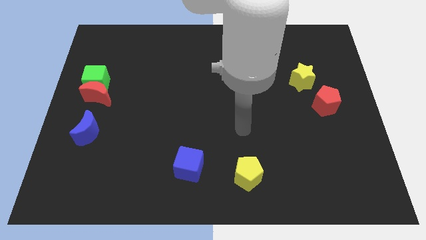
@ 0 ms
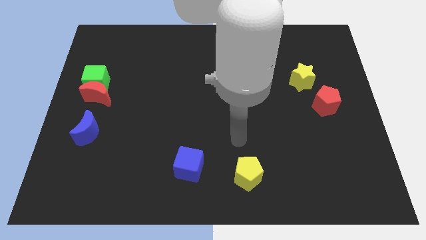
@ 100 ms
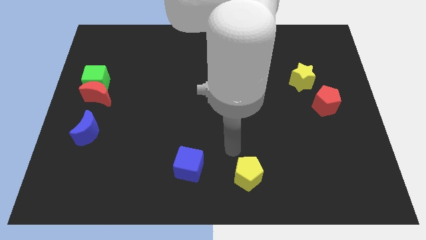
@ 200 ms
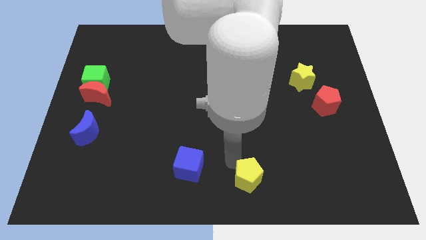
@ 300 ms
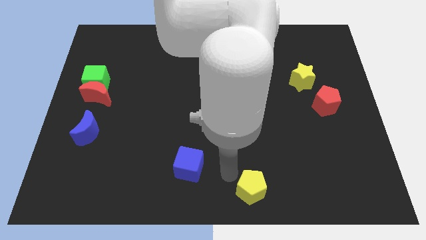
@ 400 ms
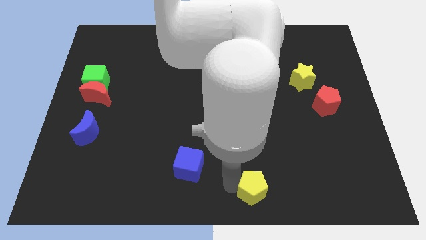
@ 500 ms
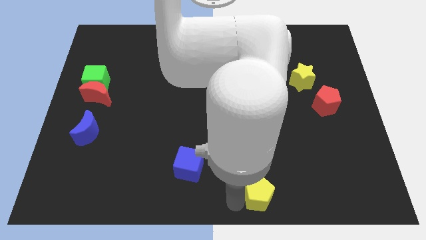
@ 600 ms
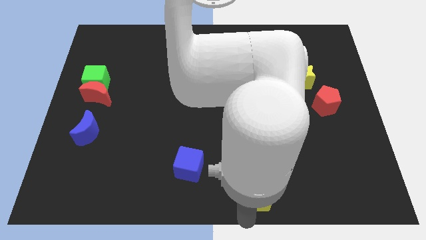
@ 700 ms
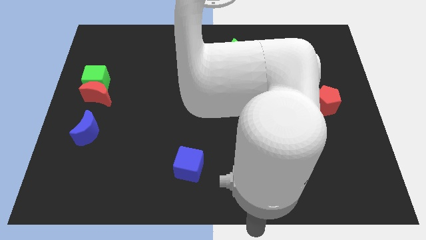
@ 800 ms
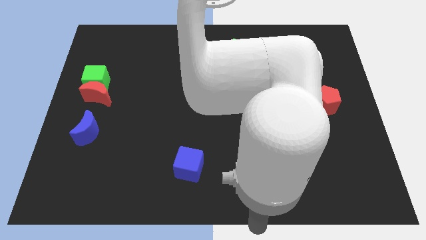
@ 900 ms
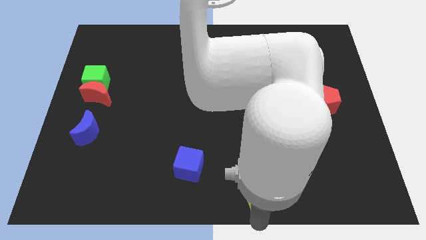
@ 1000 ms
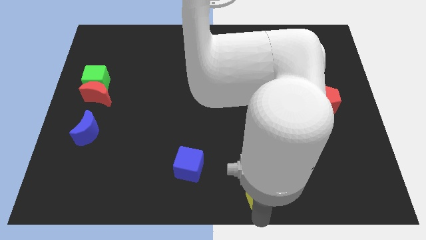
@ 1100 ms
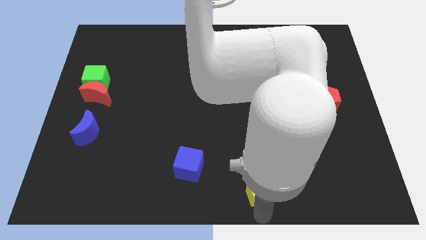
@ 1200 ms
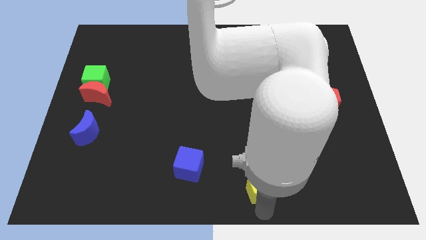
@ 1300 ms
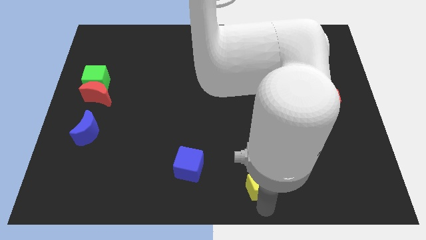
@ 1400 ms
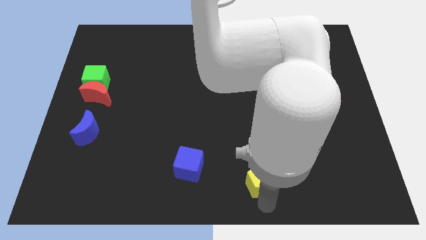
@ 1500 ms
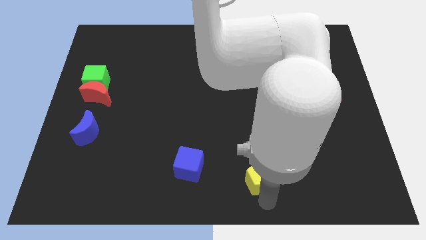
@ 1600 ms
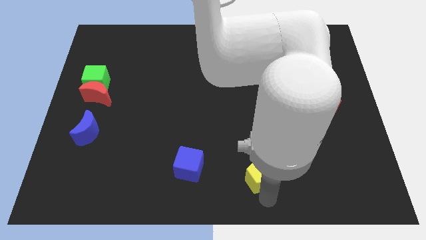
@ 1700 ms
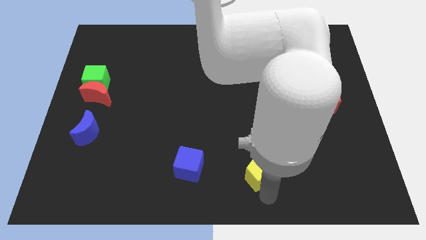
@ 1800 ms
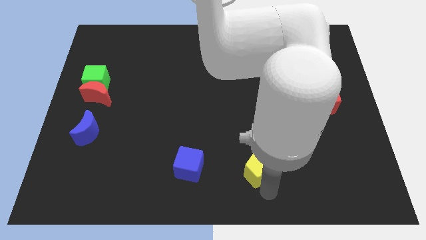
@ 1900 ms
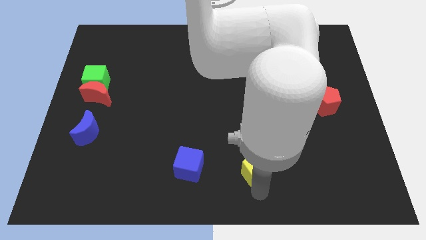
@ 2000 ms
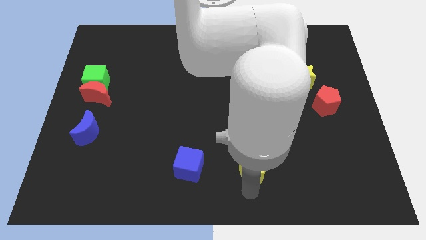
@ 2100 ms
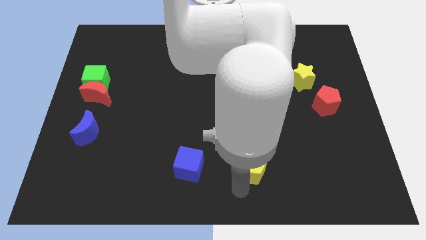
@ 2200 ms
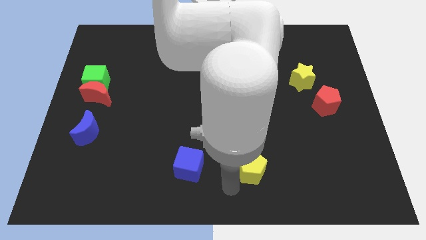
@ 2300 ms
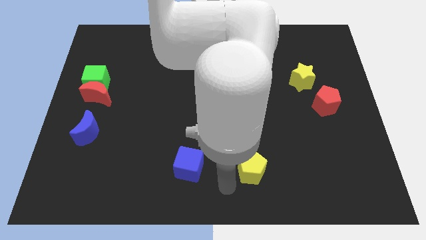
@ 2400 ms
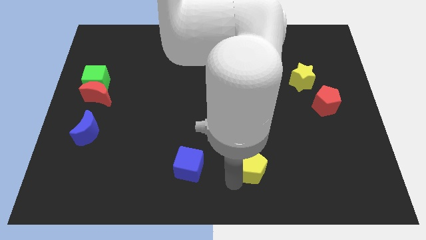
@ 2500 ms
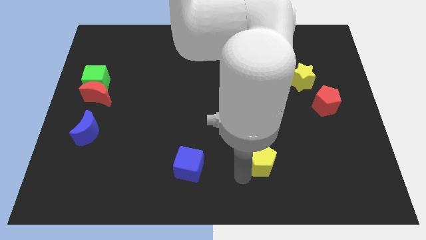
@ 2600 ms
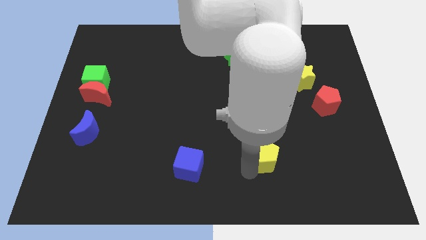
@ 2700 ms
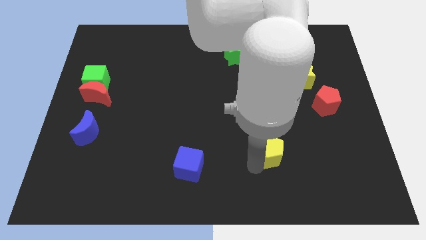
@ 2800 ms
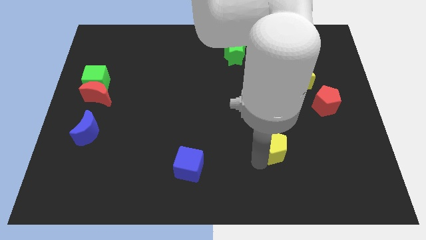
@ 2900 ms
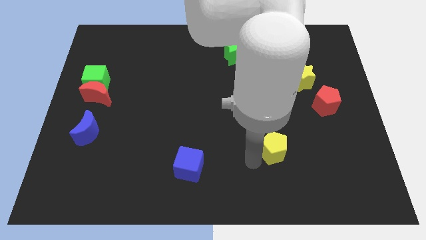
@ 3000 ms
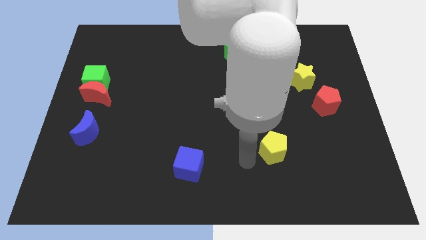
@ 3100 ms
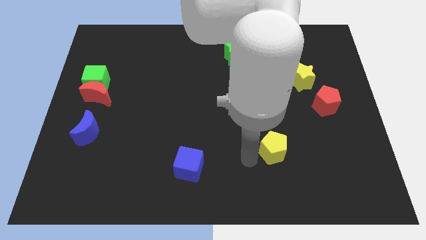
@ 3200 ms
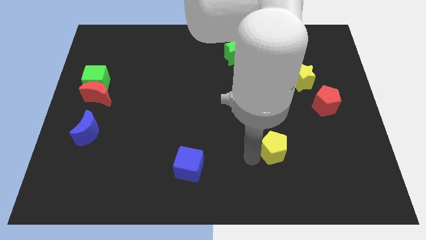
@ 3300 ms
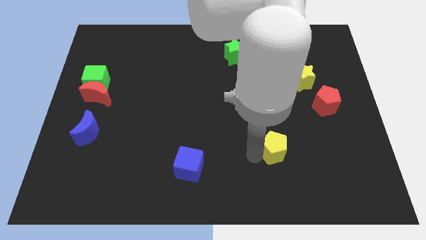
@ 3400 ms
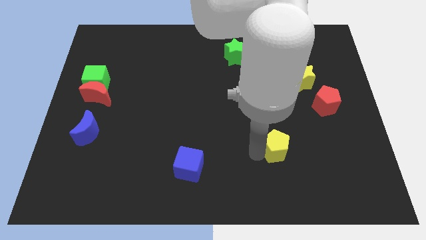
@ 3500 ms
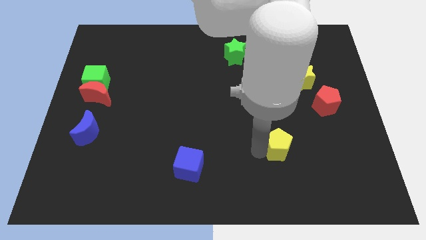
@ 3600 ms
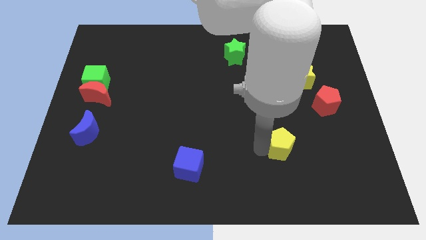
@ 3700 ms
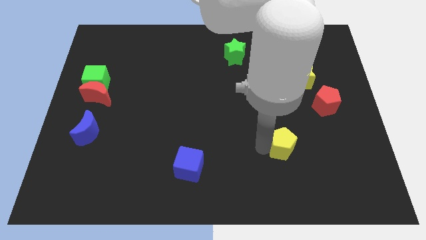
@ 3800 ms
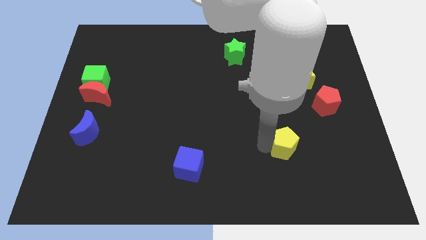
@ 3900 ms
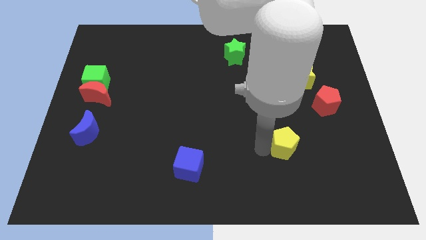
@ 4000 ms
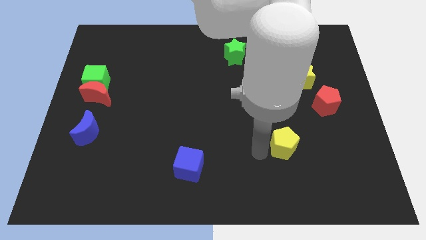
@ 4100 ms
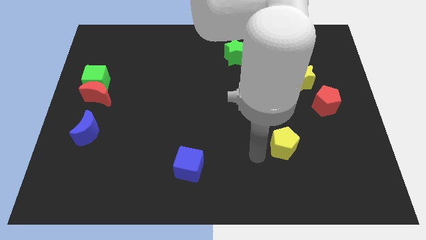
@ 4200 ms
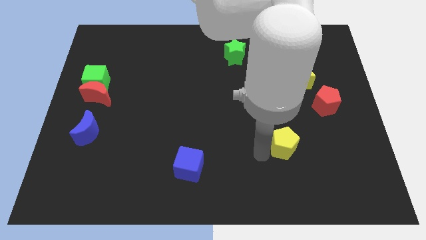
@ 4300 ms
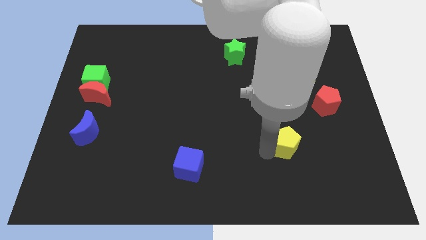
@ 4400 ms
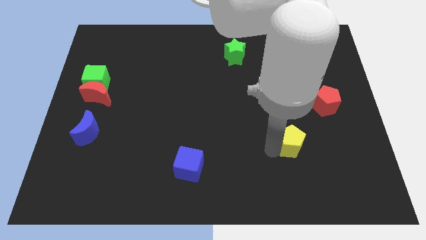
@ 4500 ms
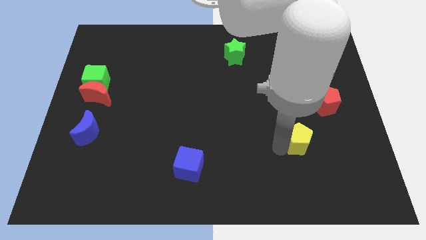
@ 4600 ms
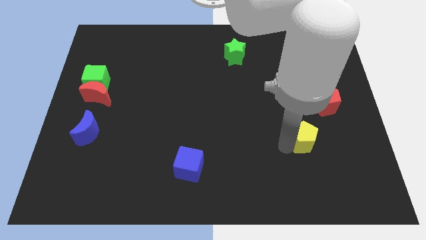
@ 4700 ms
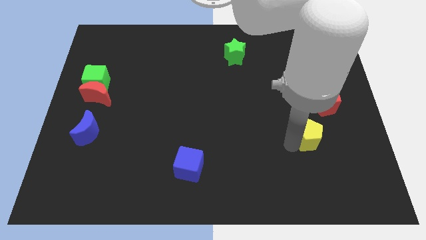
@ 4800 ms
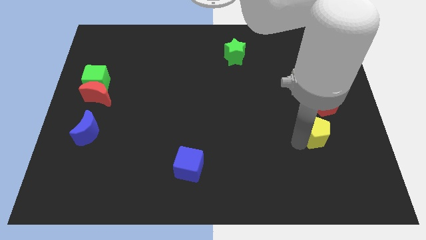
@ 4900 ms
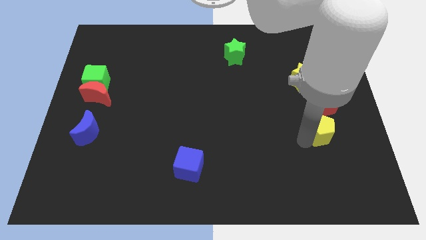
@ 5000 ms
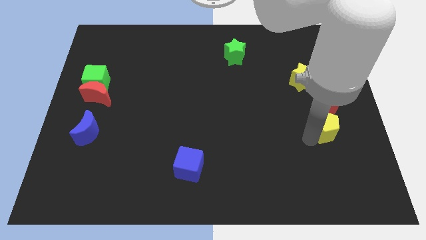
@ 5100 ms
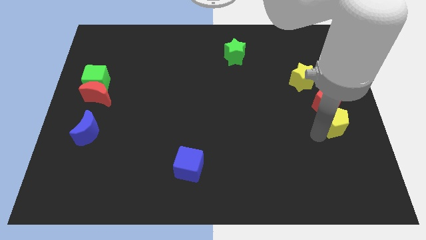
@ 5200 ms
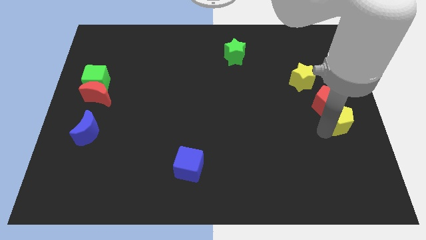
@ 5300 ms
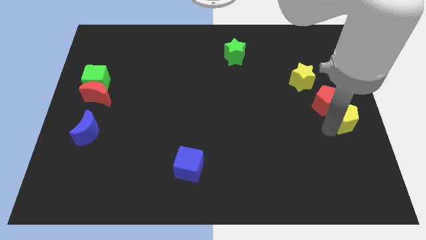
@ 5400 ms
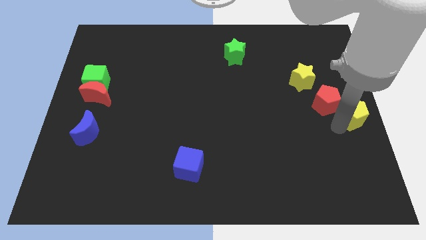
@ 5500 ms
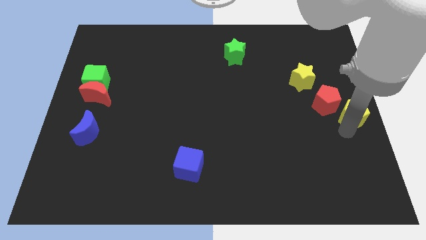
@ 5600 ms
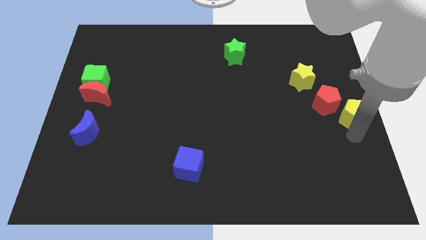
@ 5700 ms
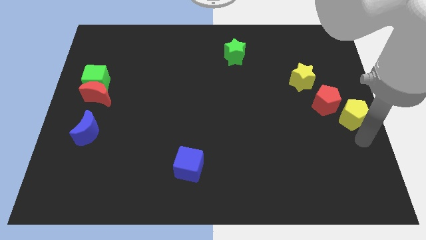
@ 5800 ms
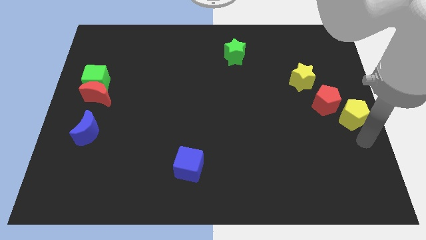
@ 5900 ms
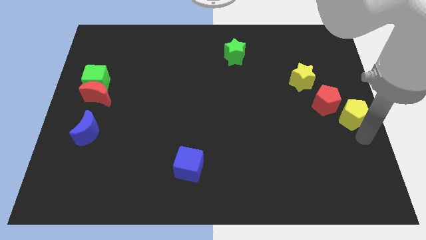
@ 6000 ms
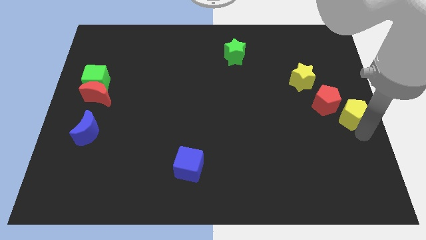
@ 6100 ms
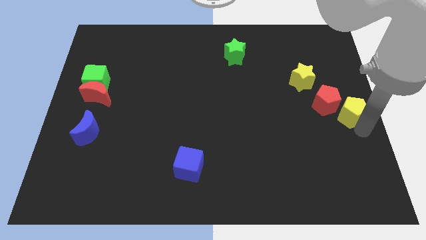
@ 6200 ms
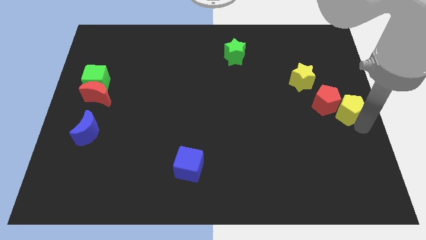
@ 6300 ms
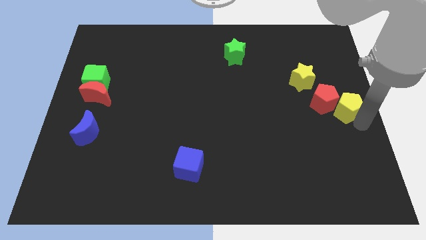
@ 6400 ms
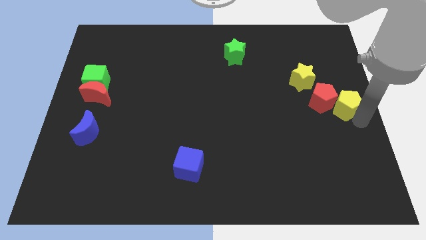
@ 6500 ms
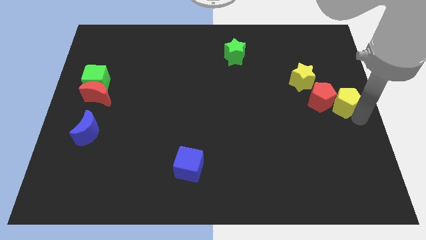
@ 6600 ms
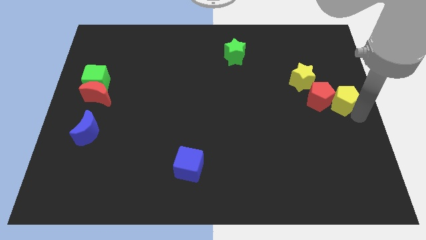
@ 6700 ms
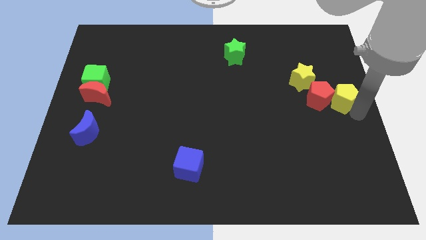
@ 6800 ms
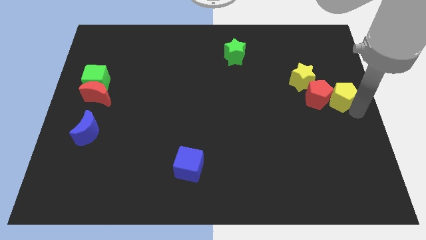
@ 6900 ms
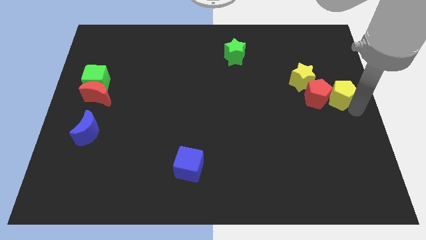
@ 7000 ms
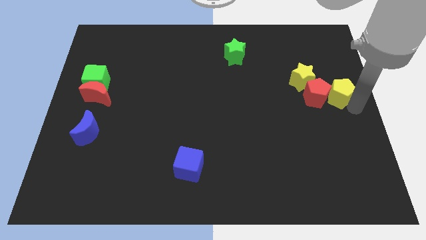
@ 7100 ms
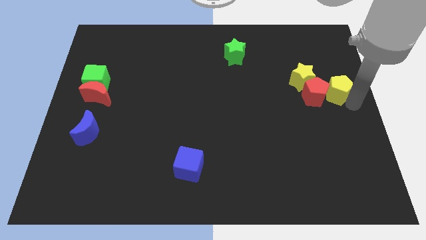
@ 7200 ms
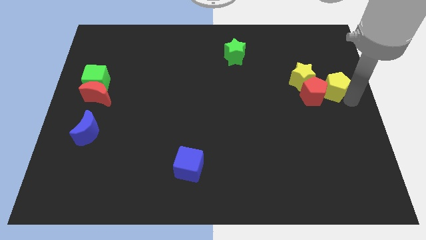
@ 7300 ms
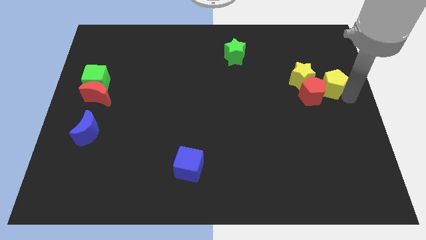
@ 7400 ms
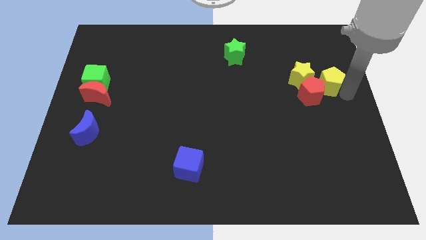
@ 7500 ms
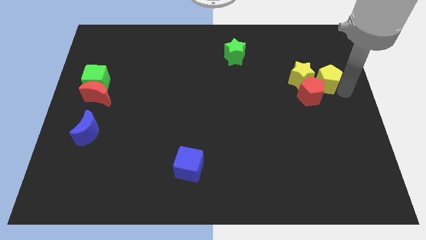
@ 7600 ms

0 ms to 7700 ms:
slide the yellow pentagon above the red pentagon
